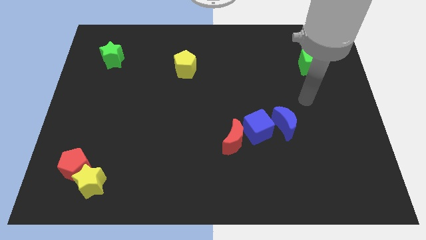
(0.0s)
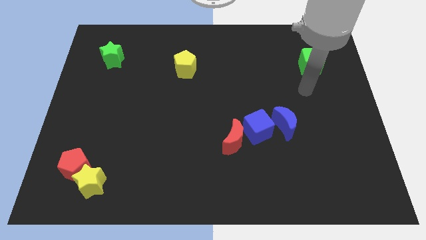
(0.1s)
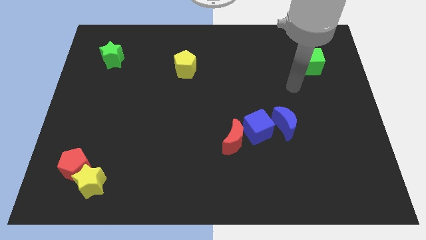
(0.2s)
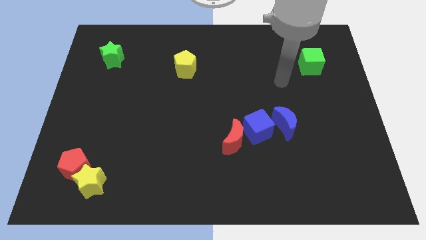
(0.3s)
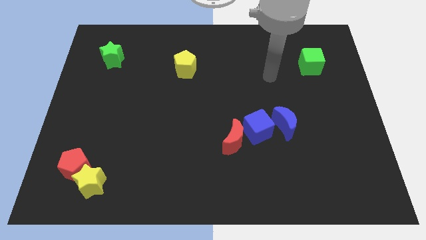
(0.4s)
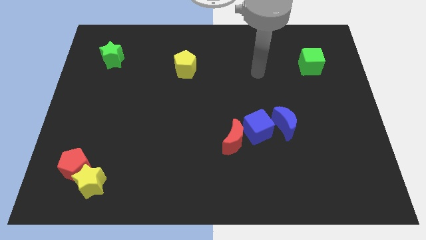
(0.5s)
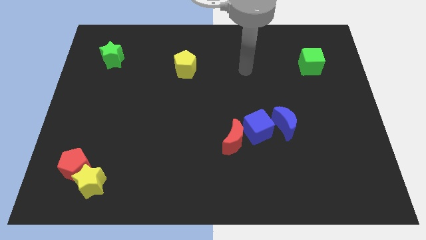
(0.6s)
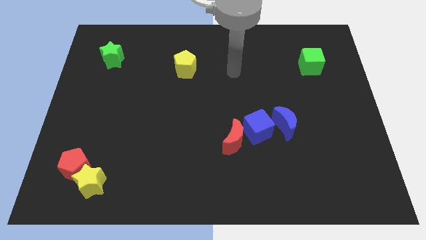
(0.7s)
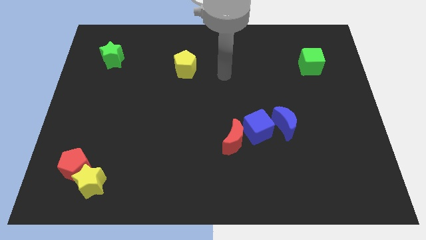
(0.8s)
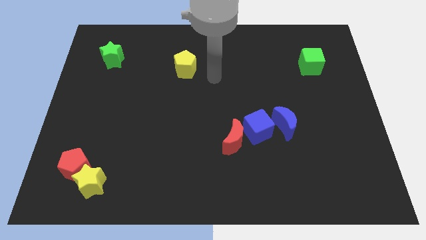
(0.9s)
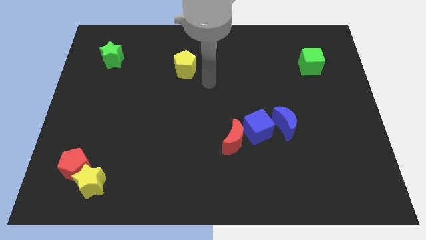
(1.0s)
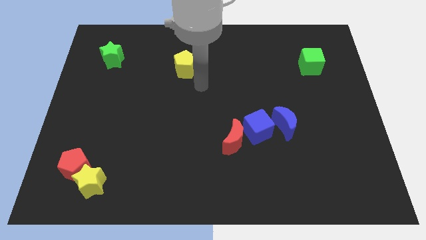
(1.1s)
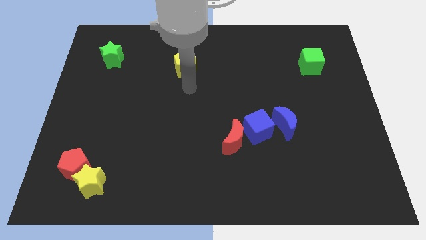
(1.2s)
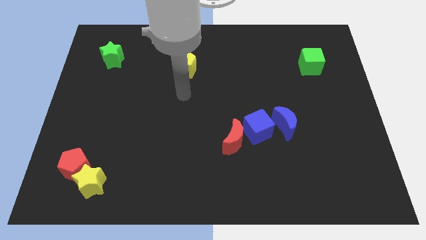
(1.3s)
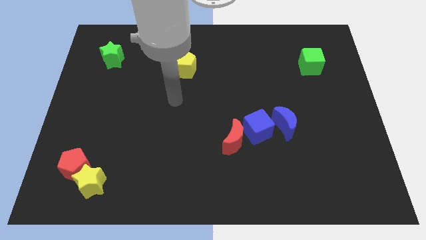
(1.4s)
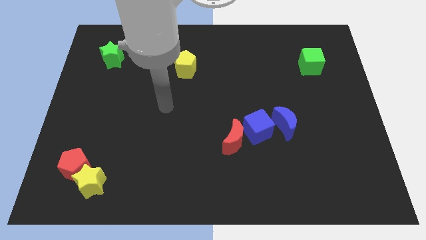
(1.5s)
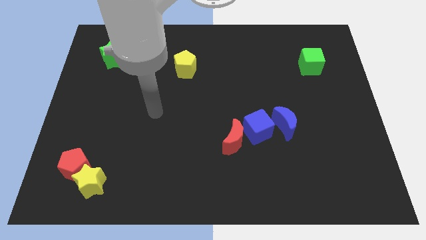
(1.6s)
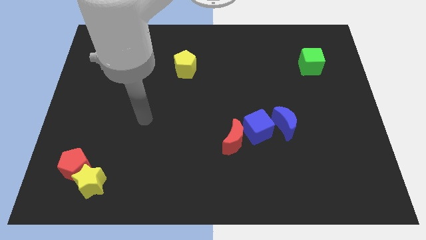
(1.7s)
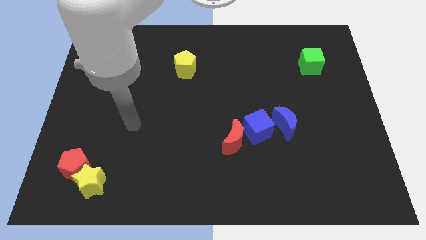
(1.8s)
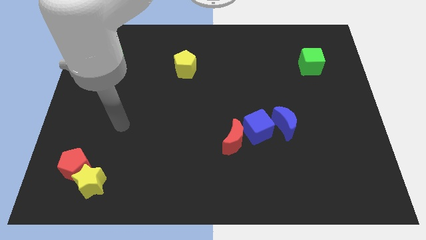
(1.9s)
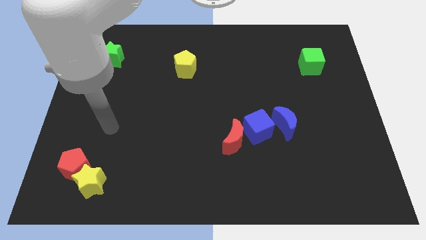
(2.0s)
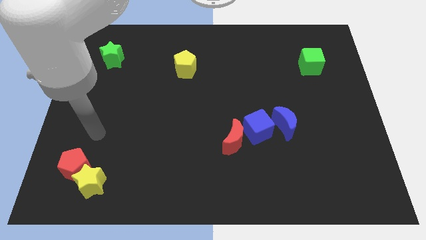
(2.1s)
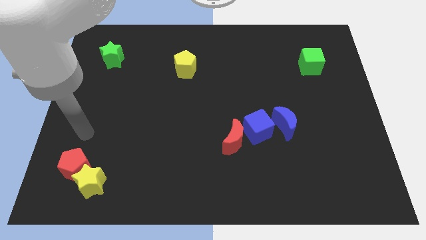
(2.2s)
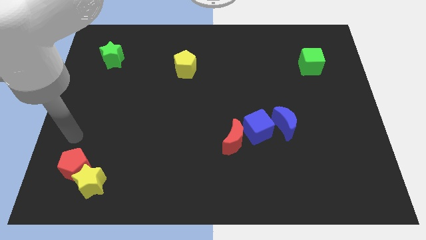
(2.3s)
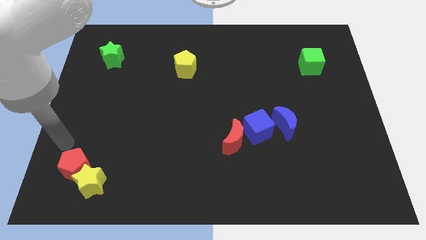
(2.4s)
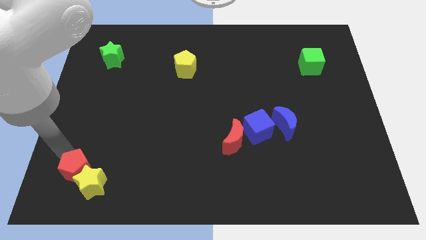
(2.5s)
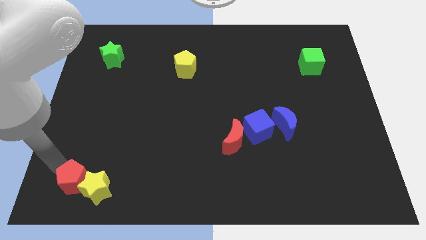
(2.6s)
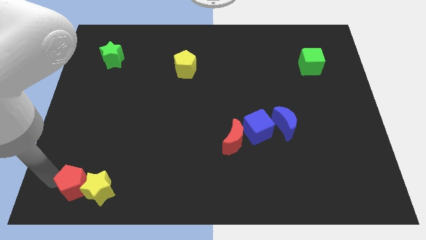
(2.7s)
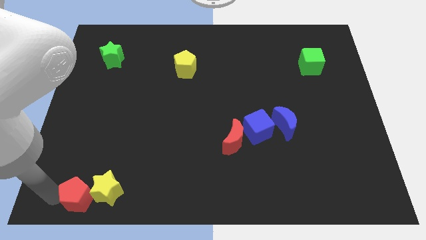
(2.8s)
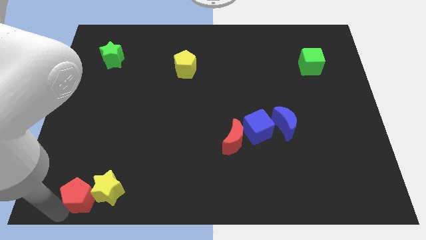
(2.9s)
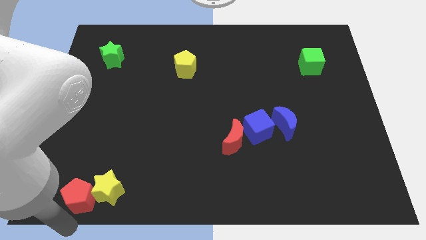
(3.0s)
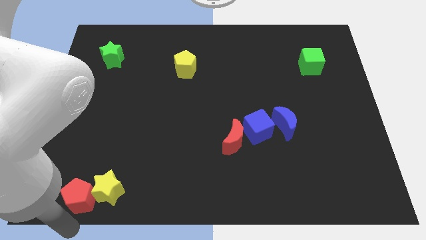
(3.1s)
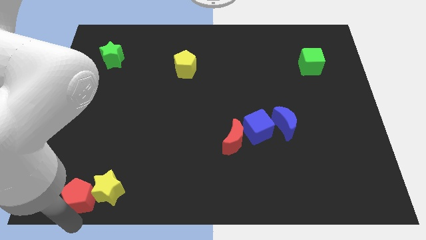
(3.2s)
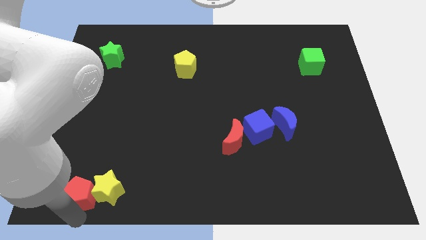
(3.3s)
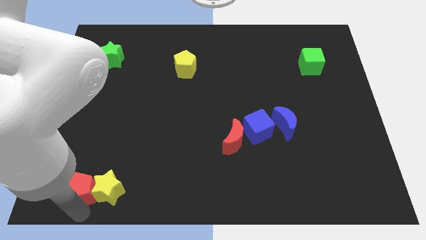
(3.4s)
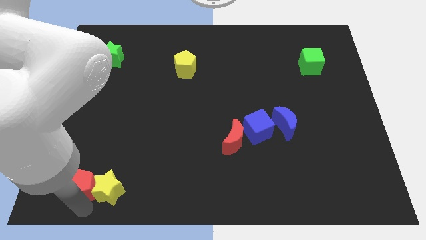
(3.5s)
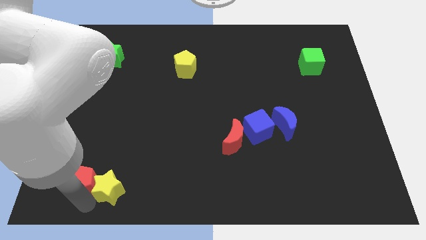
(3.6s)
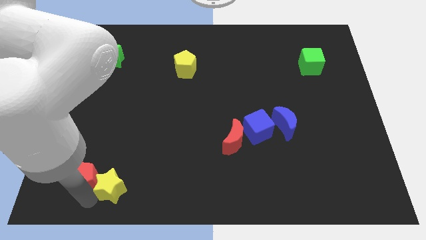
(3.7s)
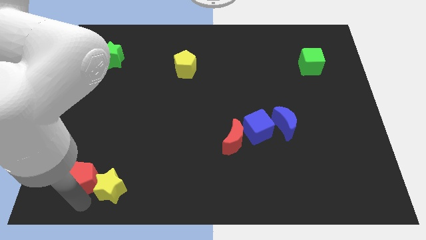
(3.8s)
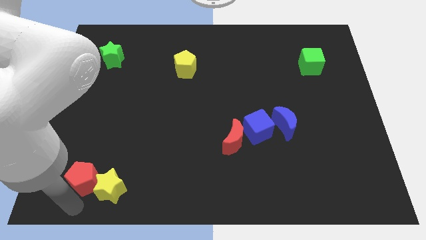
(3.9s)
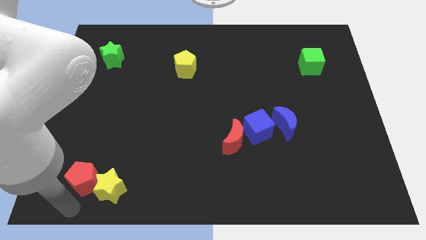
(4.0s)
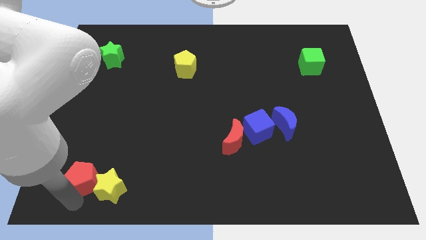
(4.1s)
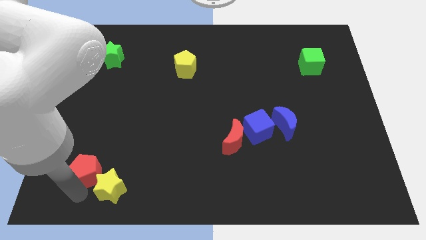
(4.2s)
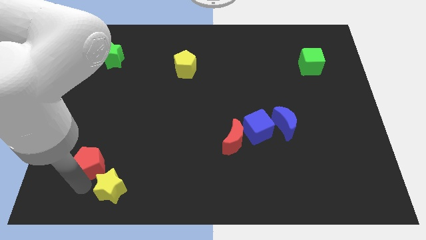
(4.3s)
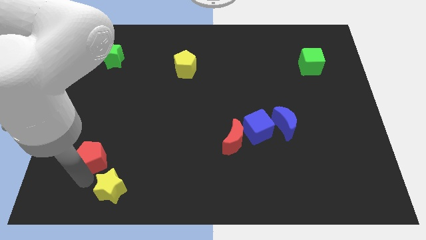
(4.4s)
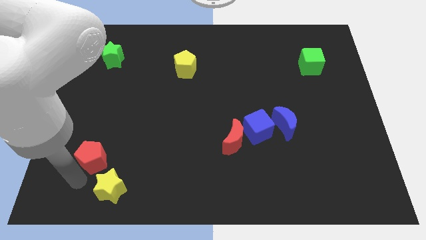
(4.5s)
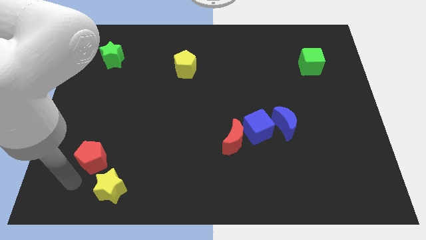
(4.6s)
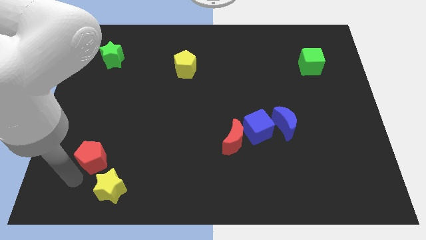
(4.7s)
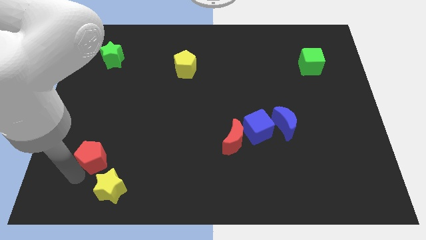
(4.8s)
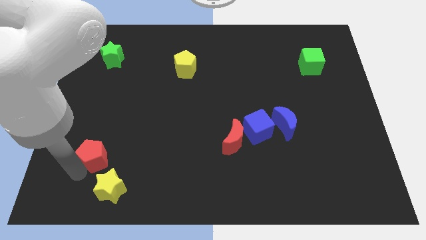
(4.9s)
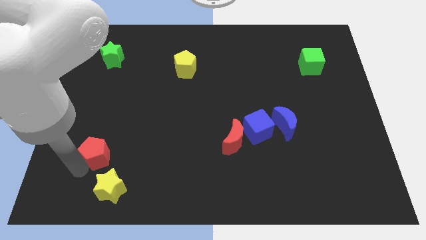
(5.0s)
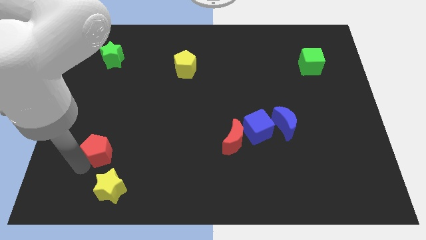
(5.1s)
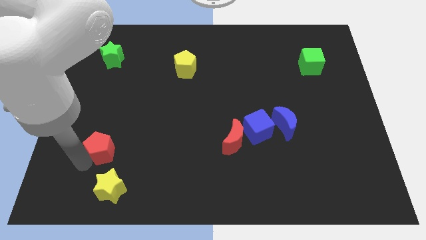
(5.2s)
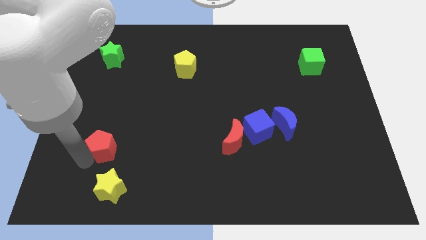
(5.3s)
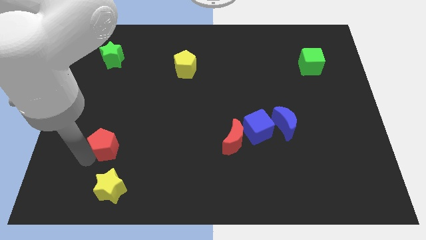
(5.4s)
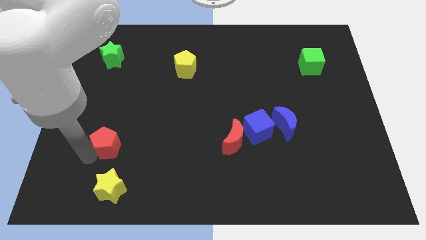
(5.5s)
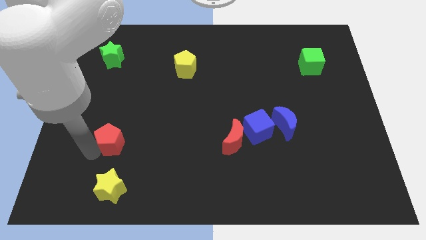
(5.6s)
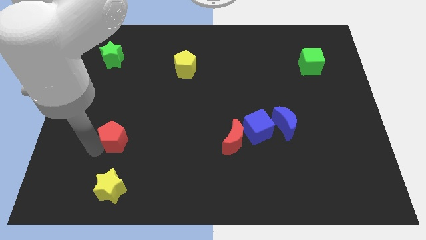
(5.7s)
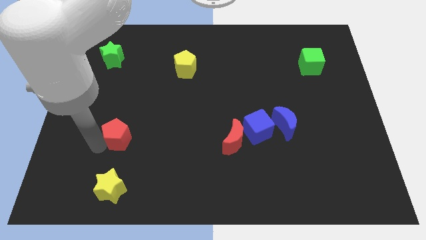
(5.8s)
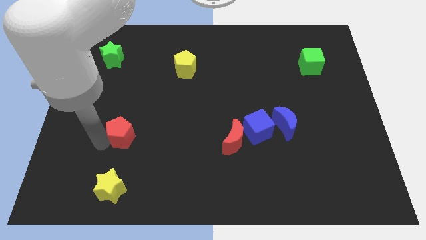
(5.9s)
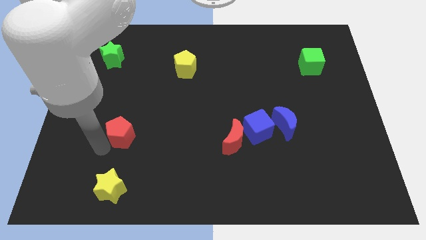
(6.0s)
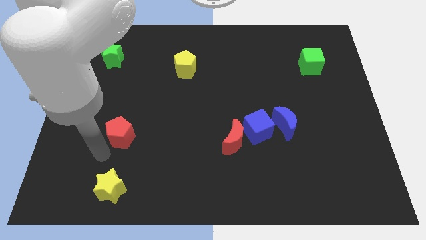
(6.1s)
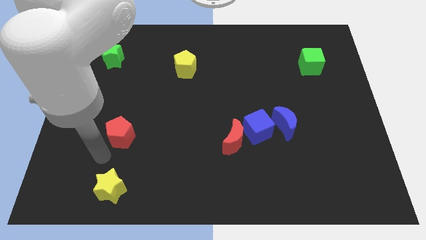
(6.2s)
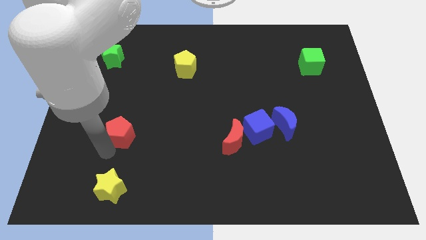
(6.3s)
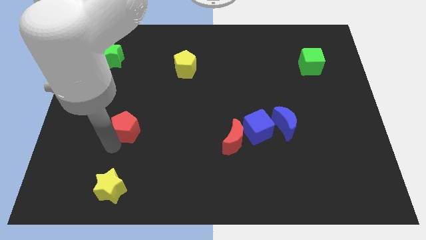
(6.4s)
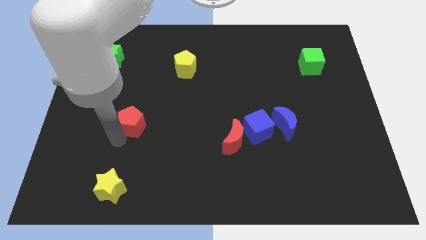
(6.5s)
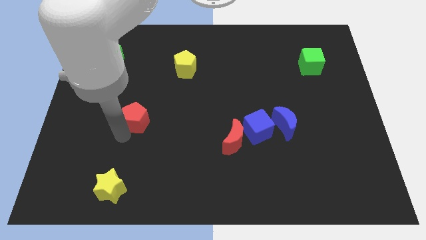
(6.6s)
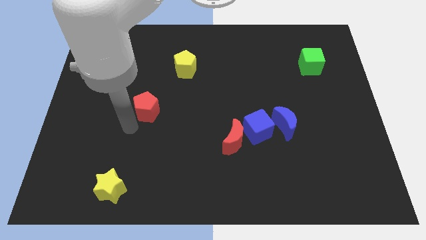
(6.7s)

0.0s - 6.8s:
slide the red pentagon upwards and right

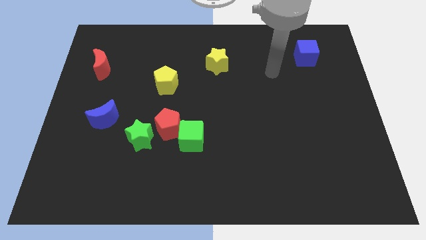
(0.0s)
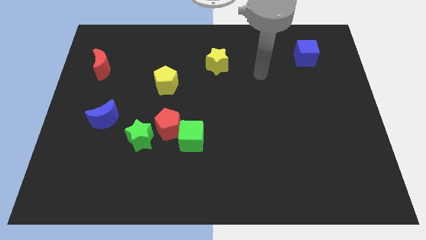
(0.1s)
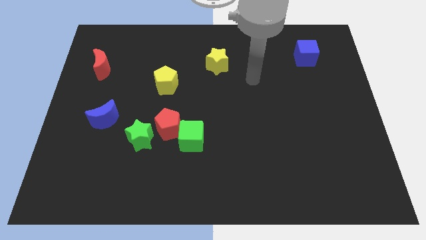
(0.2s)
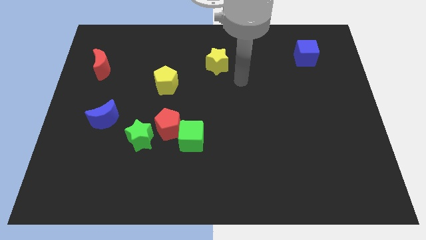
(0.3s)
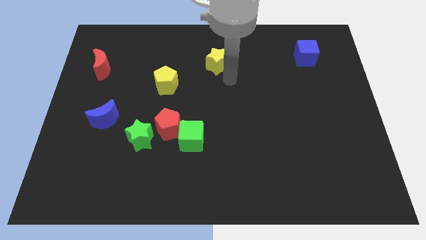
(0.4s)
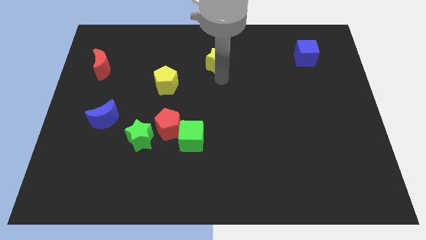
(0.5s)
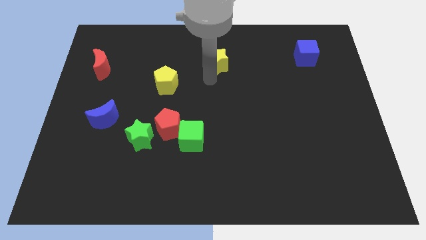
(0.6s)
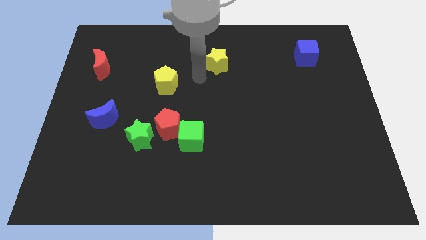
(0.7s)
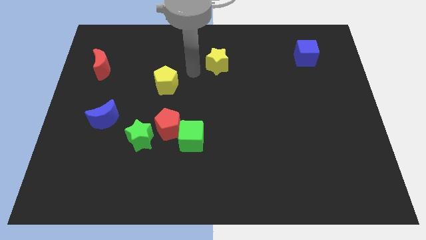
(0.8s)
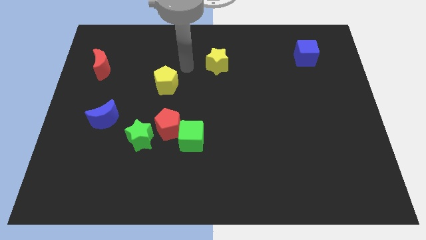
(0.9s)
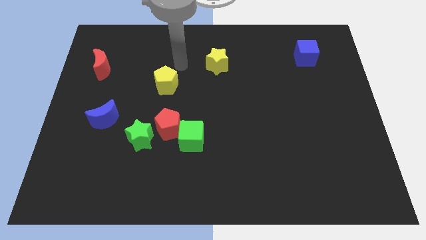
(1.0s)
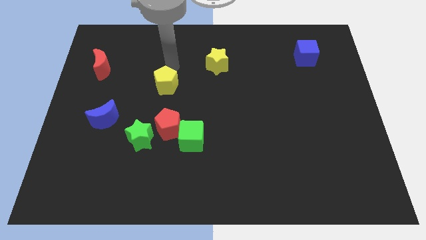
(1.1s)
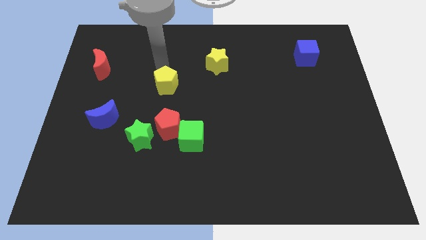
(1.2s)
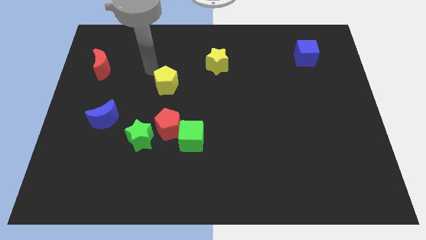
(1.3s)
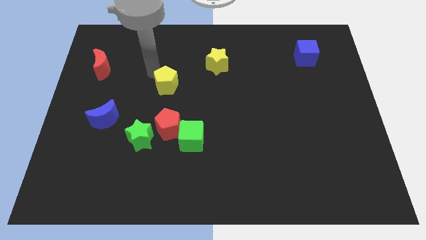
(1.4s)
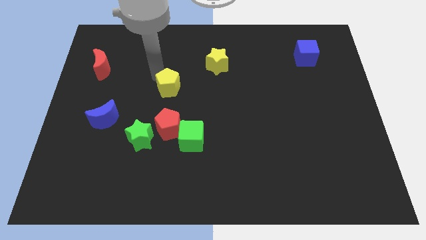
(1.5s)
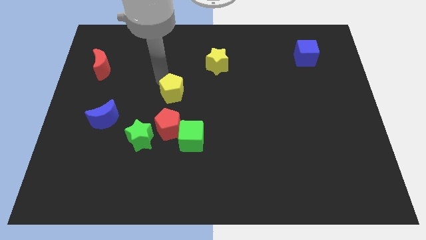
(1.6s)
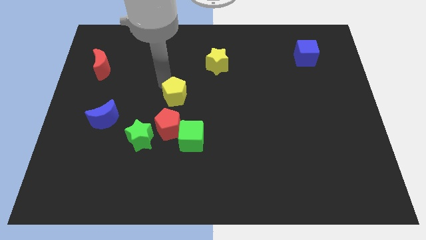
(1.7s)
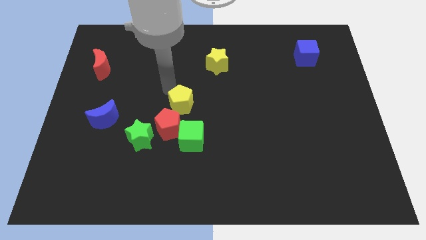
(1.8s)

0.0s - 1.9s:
slightly push the yellow pentagon downwards and to the right
